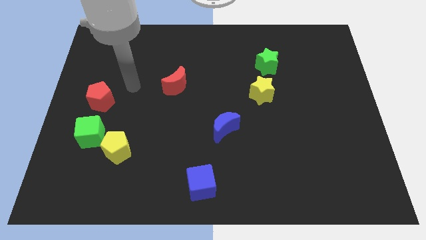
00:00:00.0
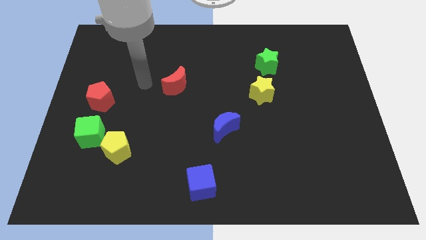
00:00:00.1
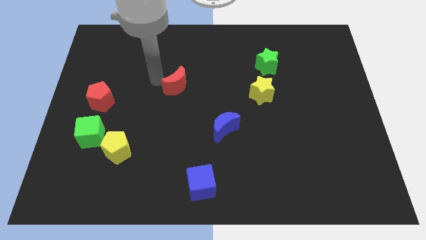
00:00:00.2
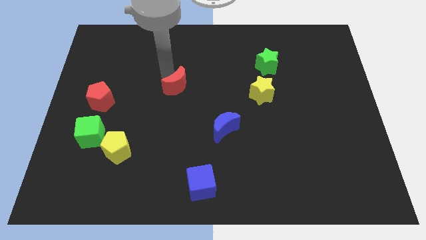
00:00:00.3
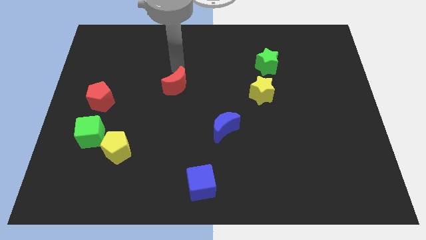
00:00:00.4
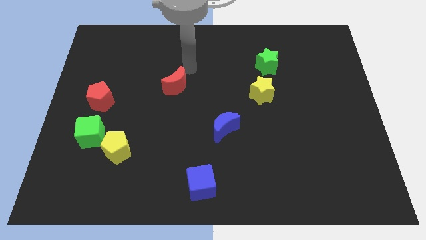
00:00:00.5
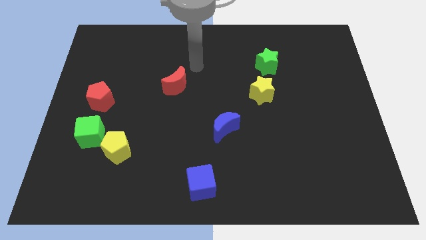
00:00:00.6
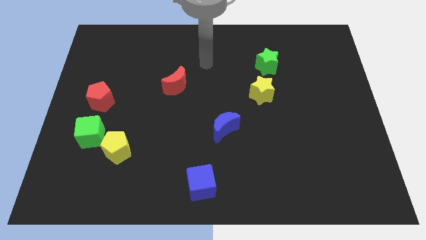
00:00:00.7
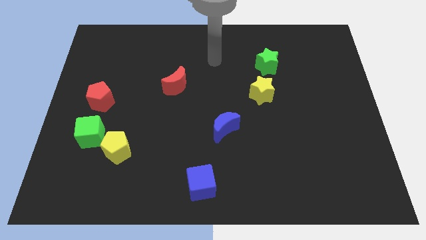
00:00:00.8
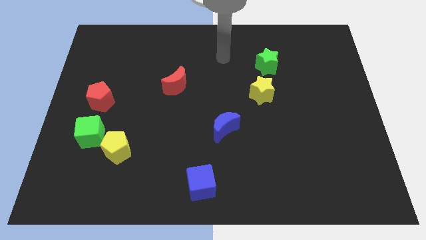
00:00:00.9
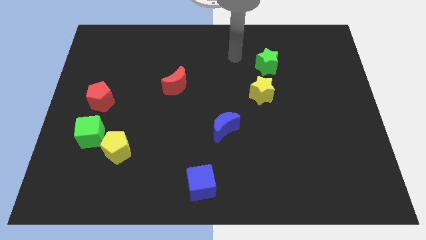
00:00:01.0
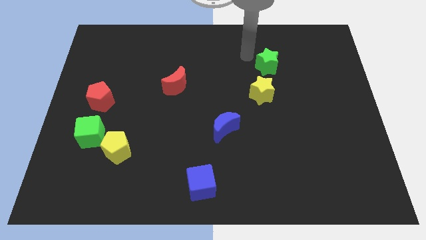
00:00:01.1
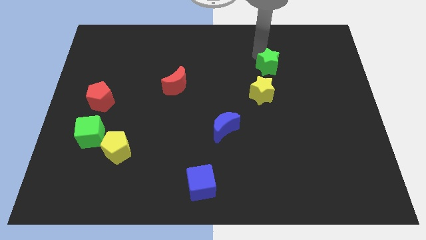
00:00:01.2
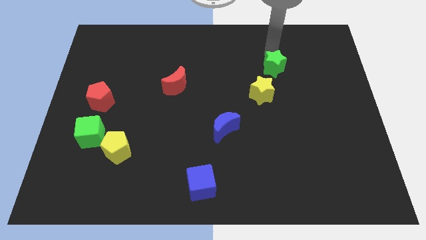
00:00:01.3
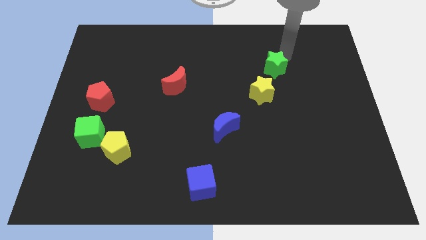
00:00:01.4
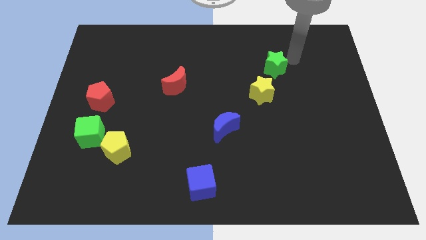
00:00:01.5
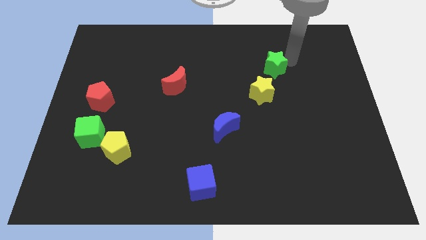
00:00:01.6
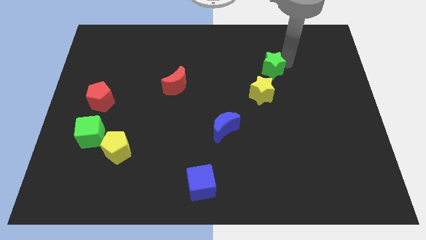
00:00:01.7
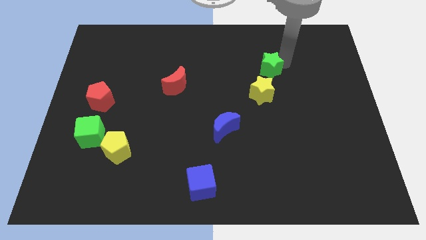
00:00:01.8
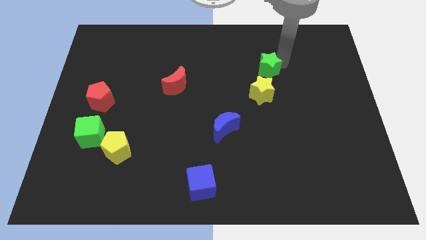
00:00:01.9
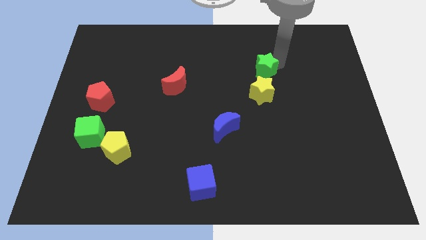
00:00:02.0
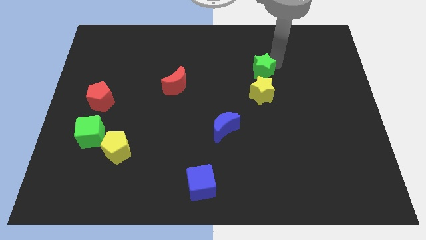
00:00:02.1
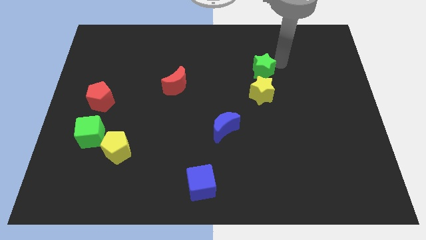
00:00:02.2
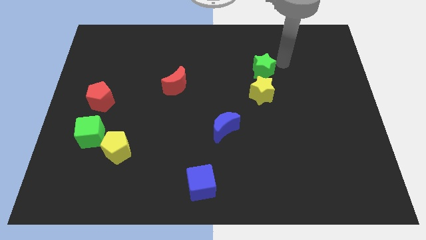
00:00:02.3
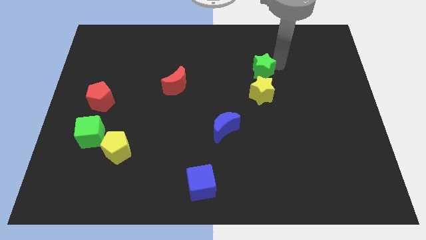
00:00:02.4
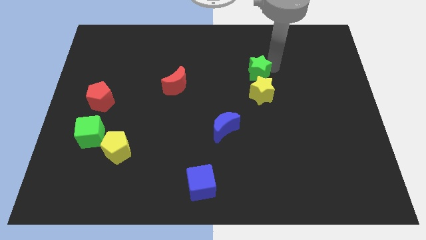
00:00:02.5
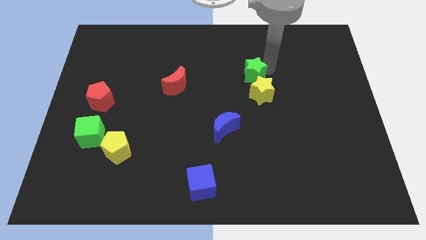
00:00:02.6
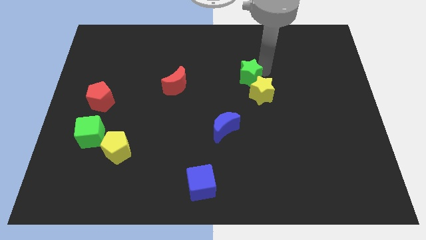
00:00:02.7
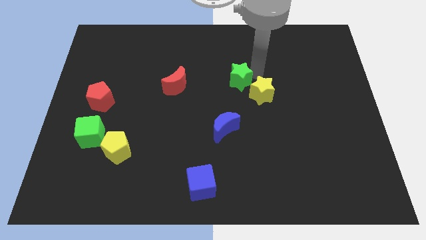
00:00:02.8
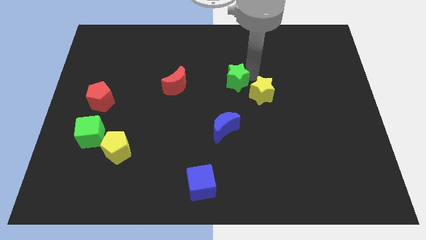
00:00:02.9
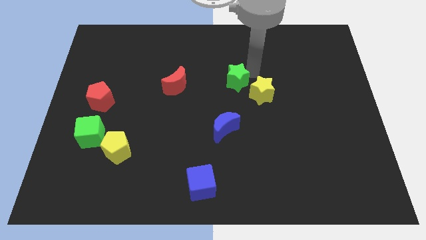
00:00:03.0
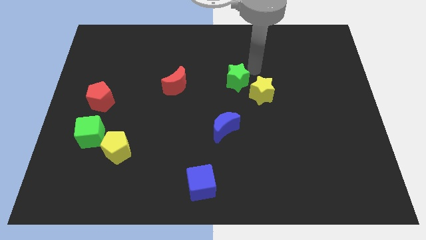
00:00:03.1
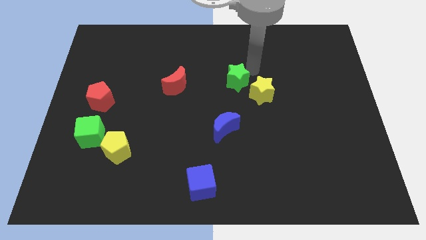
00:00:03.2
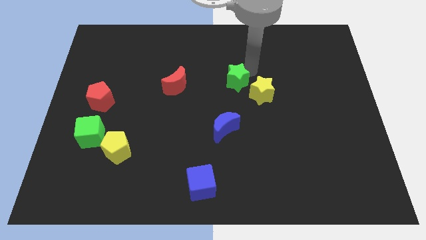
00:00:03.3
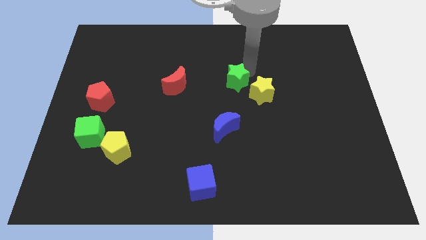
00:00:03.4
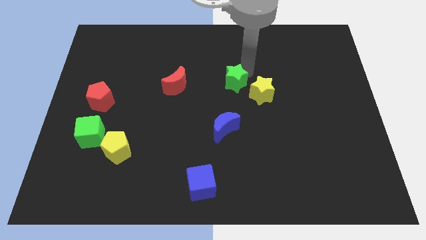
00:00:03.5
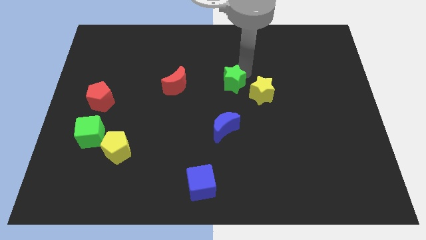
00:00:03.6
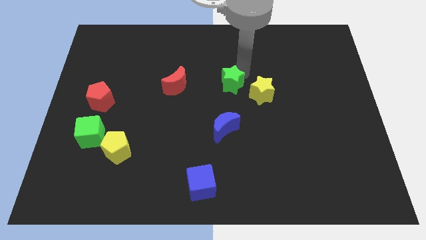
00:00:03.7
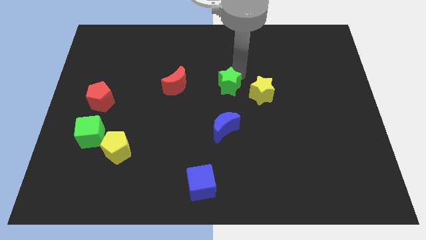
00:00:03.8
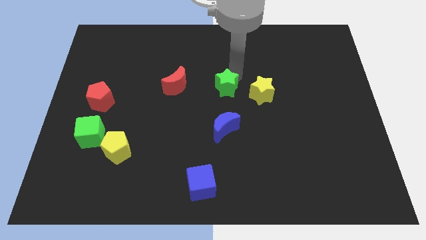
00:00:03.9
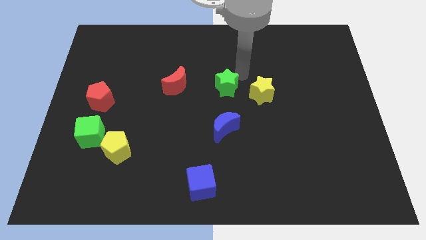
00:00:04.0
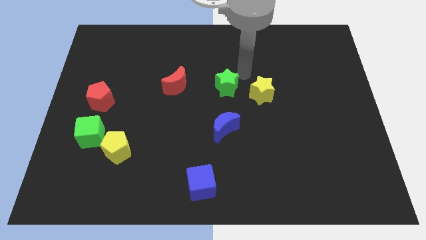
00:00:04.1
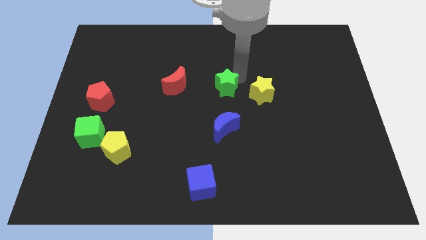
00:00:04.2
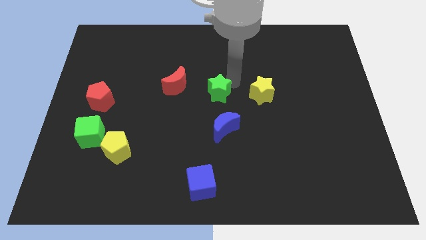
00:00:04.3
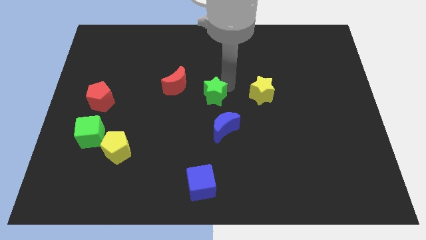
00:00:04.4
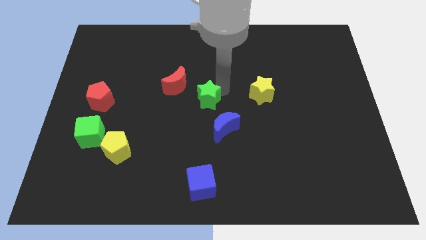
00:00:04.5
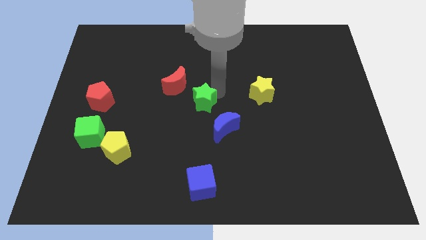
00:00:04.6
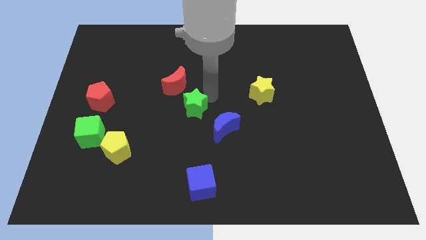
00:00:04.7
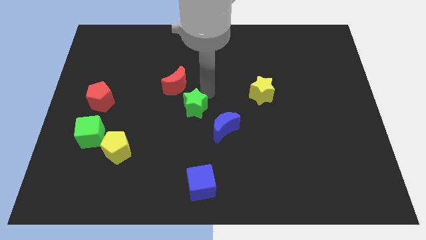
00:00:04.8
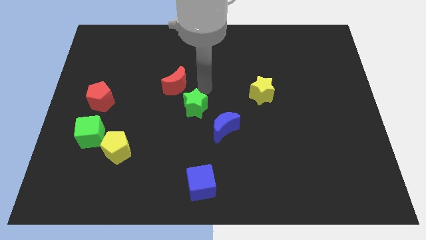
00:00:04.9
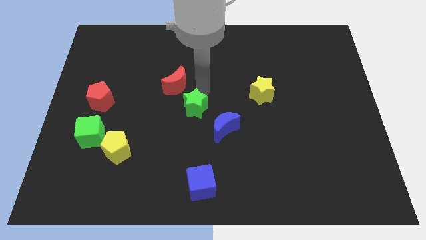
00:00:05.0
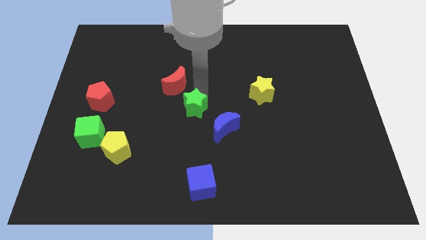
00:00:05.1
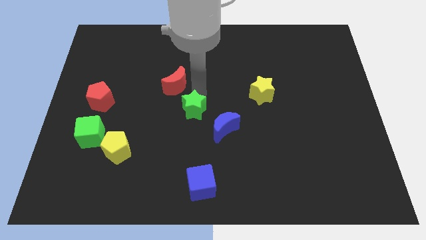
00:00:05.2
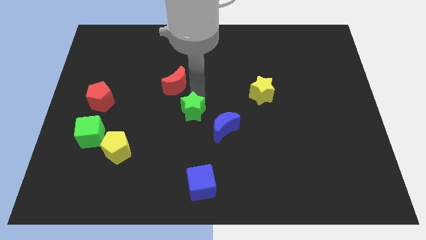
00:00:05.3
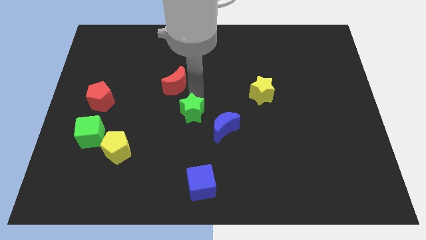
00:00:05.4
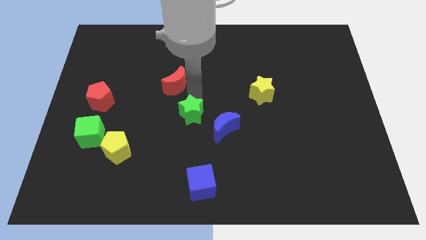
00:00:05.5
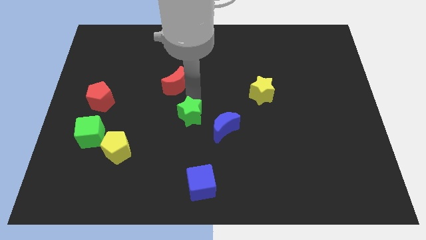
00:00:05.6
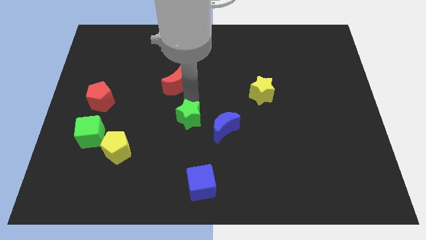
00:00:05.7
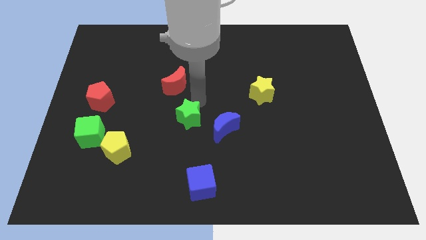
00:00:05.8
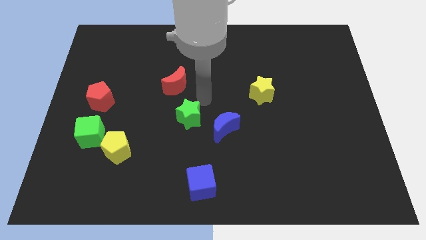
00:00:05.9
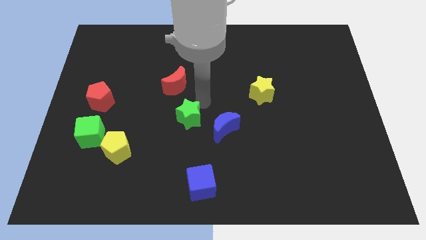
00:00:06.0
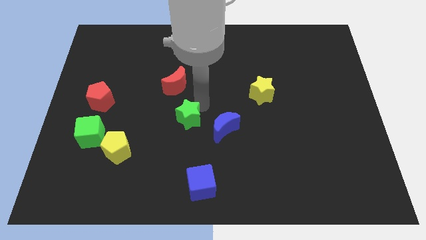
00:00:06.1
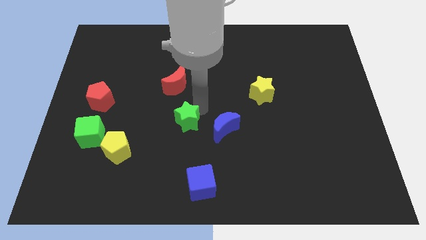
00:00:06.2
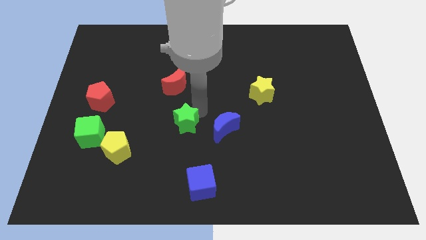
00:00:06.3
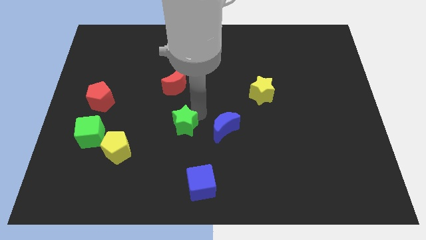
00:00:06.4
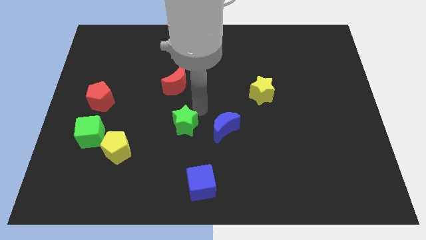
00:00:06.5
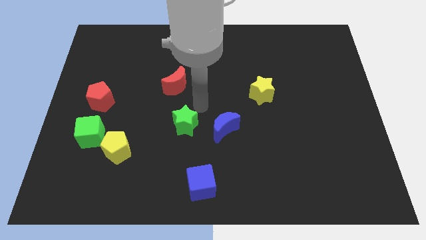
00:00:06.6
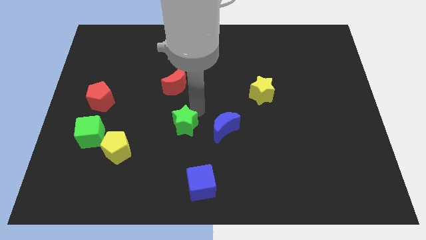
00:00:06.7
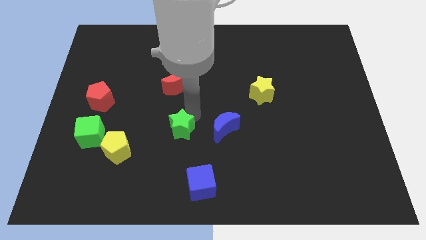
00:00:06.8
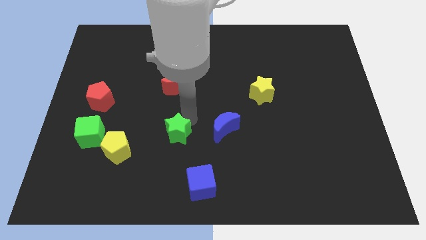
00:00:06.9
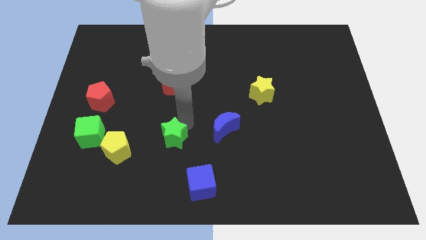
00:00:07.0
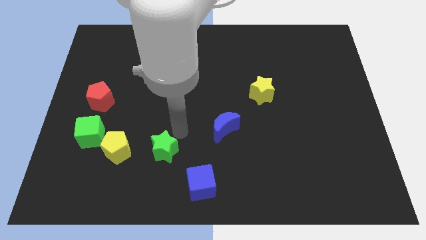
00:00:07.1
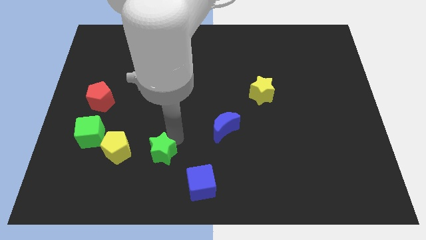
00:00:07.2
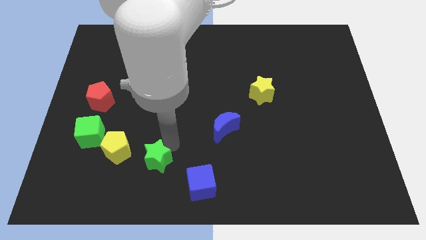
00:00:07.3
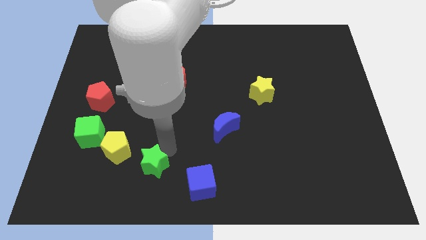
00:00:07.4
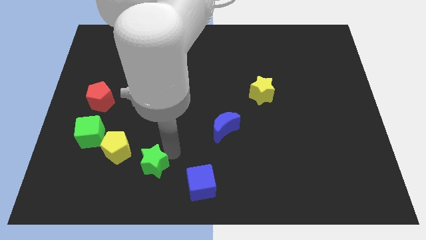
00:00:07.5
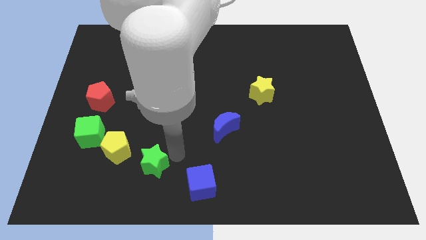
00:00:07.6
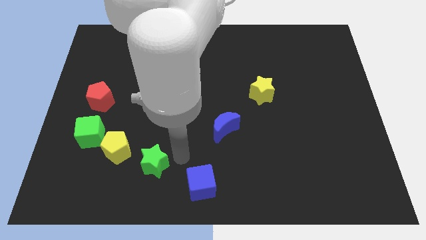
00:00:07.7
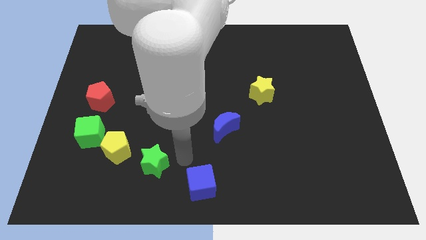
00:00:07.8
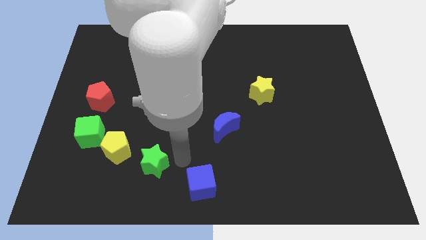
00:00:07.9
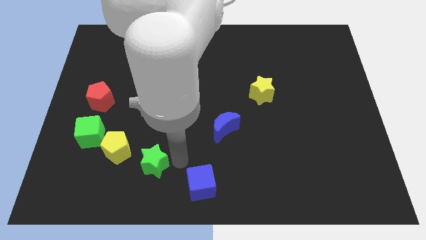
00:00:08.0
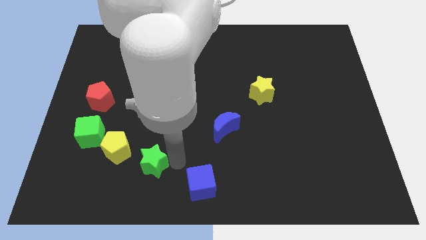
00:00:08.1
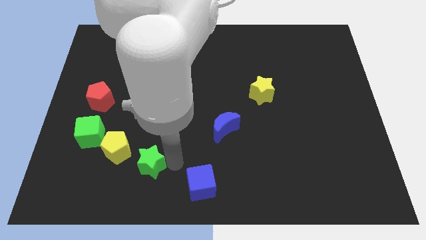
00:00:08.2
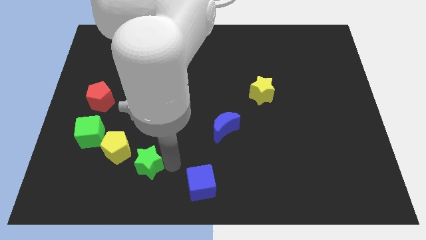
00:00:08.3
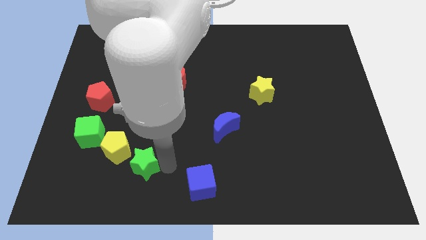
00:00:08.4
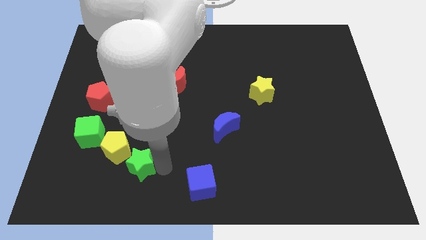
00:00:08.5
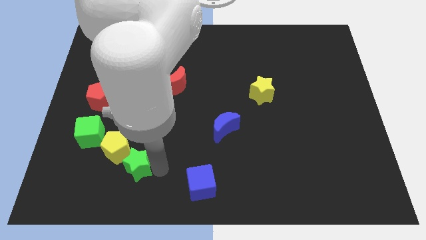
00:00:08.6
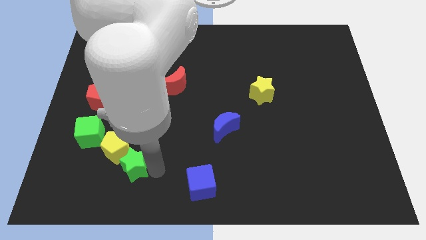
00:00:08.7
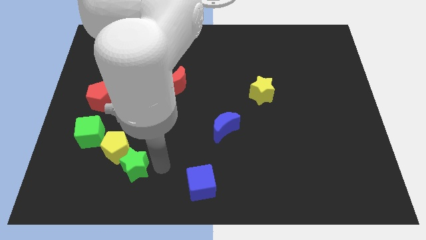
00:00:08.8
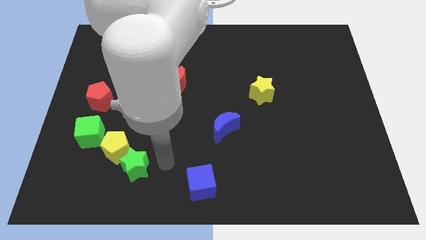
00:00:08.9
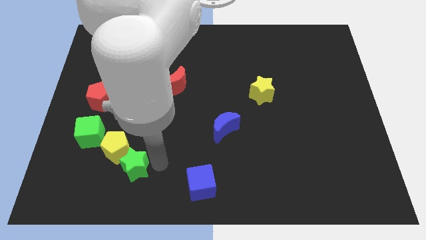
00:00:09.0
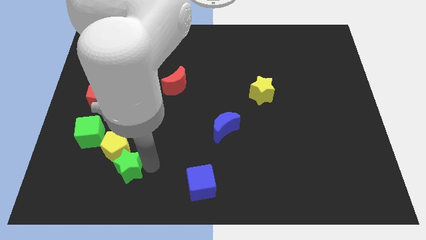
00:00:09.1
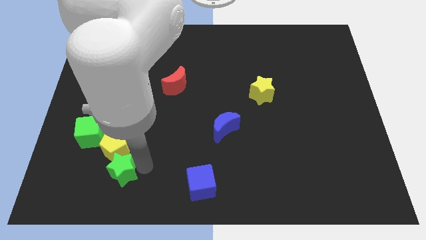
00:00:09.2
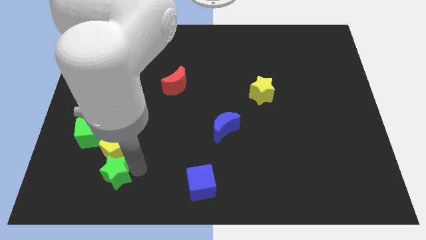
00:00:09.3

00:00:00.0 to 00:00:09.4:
put the green star to the bottom left of the yellow pentagon
